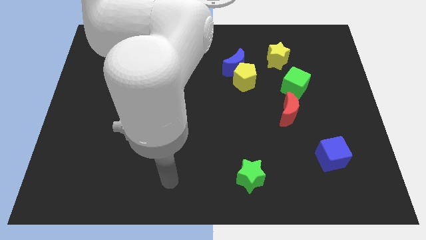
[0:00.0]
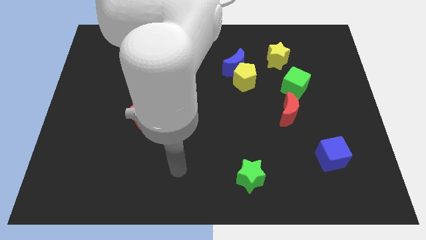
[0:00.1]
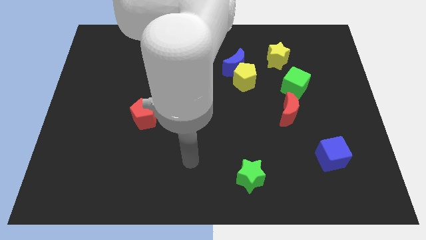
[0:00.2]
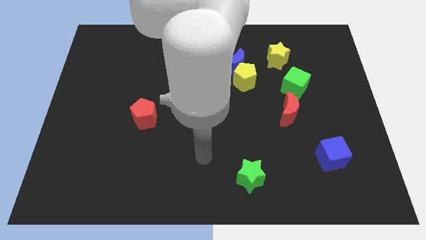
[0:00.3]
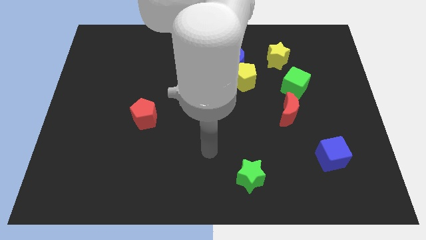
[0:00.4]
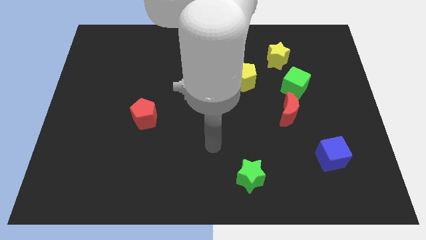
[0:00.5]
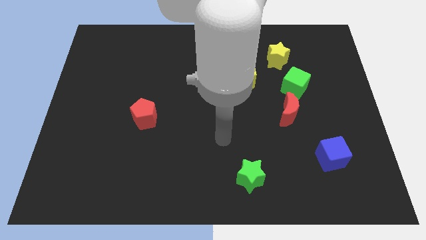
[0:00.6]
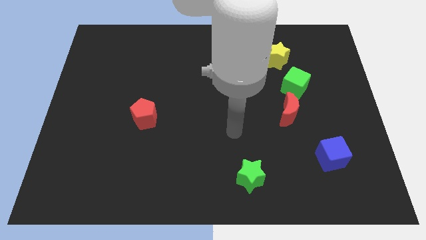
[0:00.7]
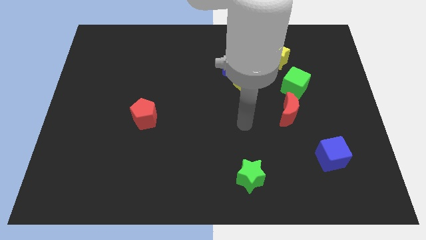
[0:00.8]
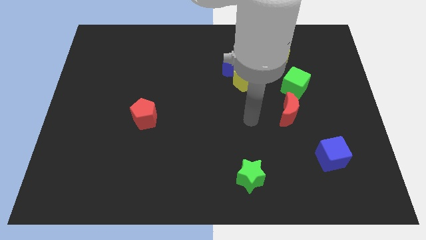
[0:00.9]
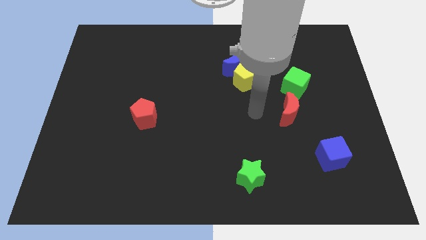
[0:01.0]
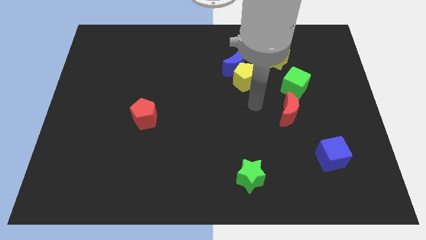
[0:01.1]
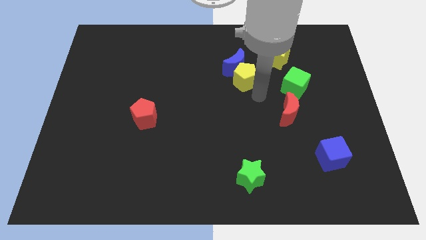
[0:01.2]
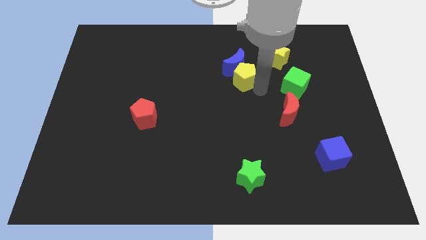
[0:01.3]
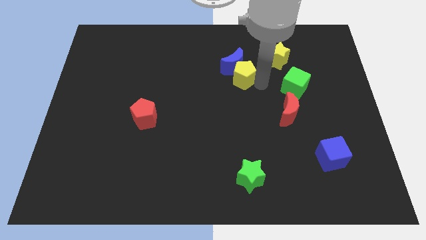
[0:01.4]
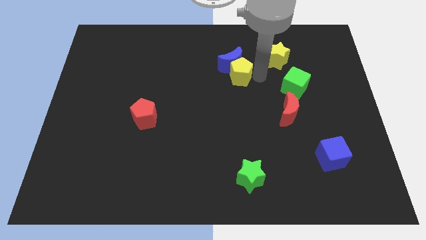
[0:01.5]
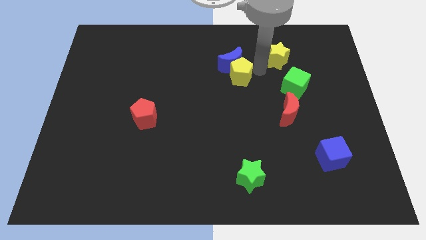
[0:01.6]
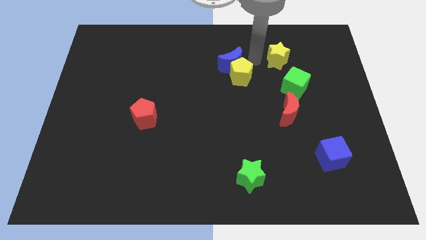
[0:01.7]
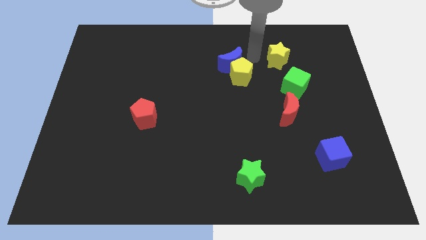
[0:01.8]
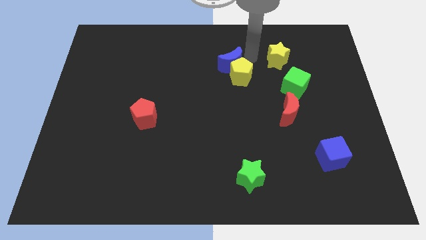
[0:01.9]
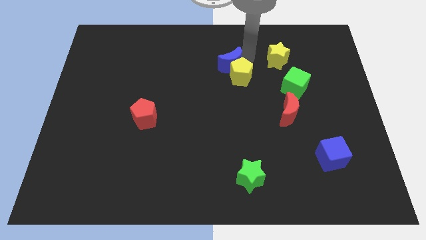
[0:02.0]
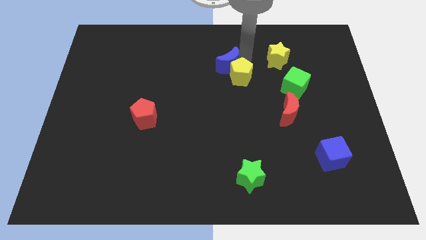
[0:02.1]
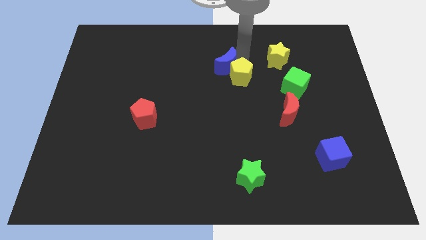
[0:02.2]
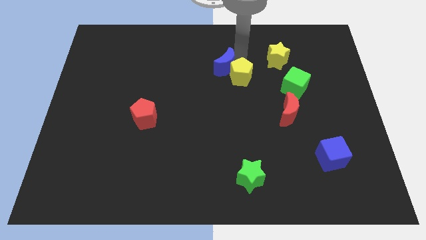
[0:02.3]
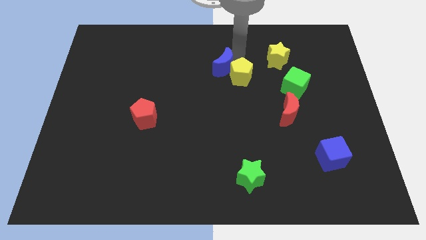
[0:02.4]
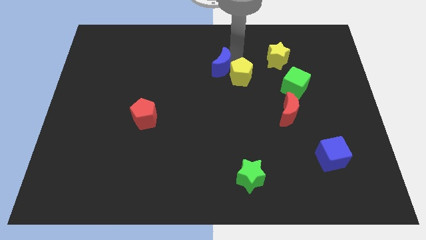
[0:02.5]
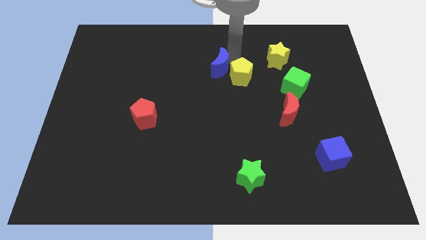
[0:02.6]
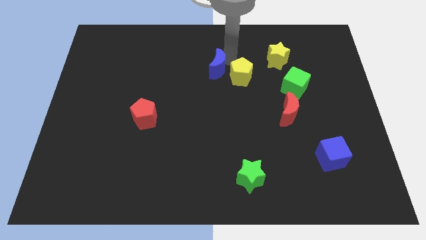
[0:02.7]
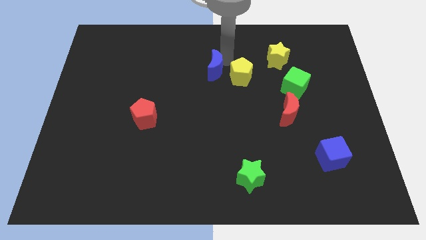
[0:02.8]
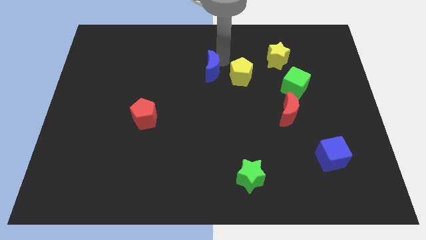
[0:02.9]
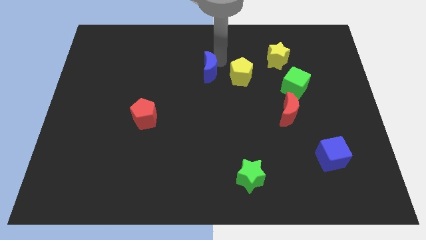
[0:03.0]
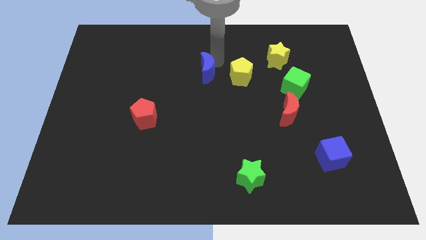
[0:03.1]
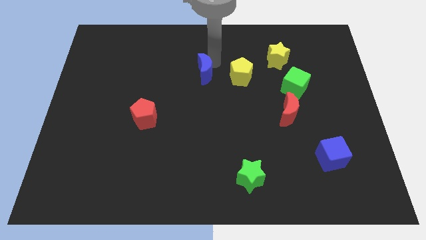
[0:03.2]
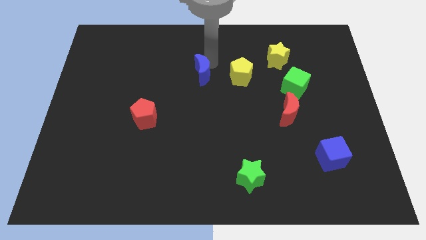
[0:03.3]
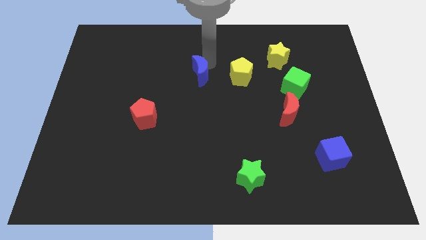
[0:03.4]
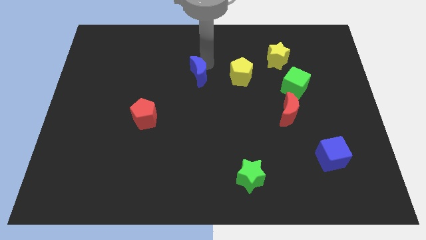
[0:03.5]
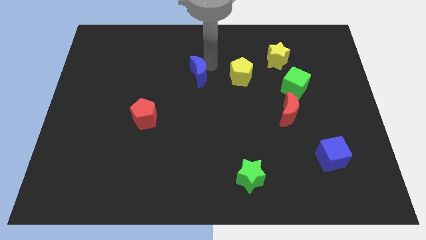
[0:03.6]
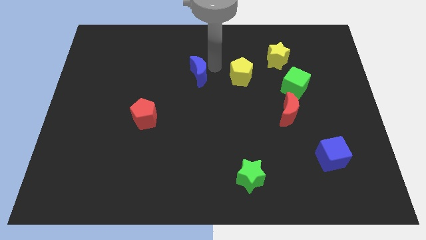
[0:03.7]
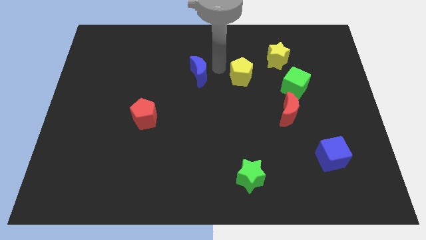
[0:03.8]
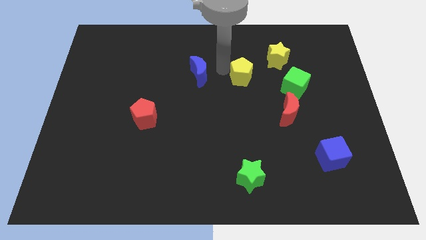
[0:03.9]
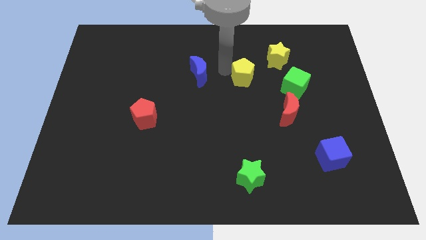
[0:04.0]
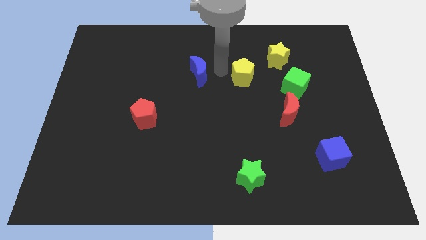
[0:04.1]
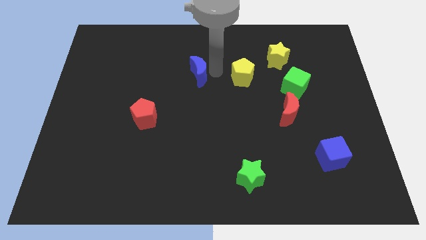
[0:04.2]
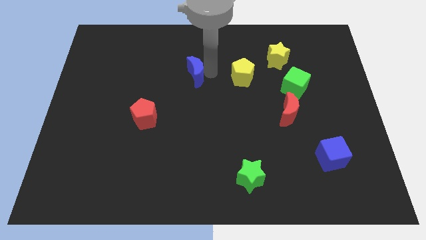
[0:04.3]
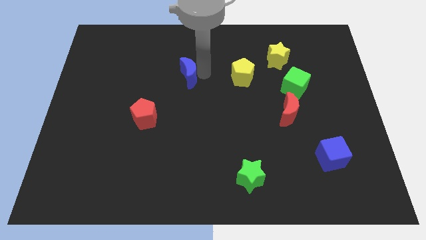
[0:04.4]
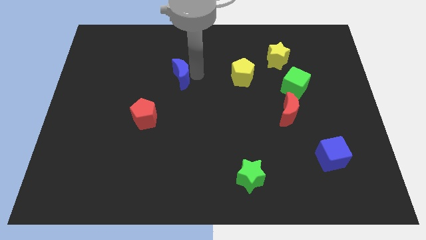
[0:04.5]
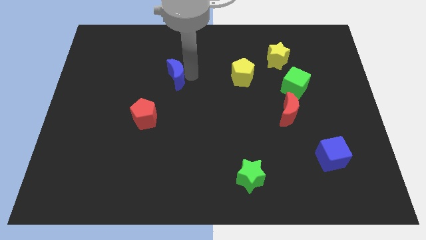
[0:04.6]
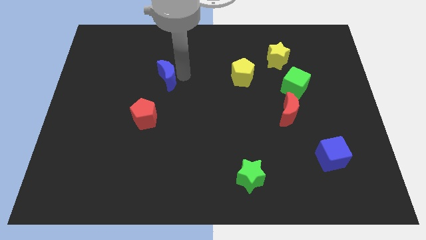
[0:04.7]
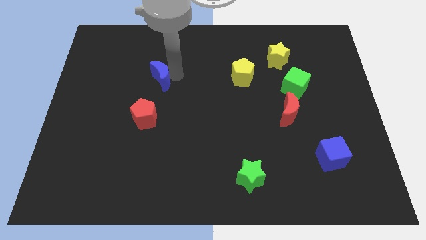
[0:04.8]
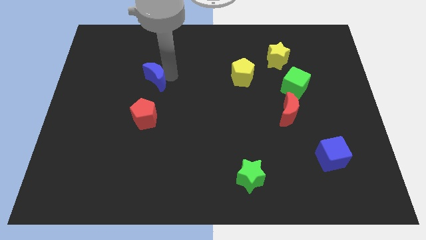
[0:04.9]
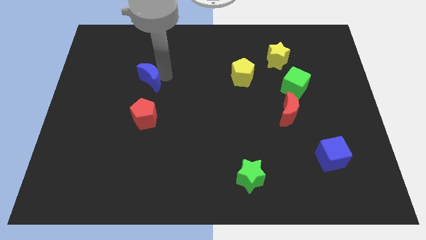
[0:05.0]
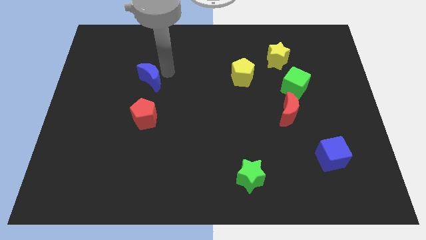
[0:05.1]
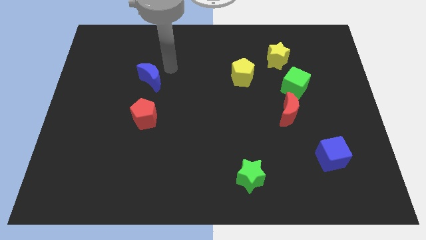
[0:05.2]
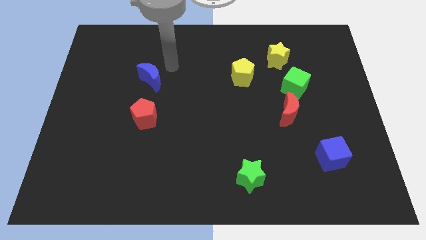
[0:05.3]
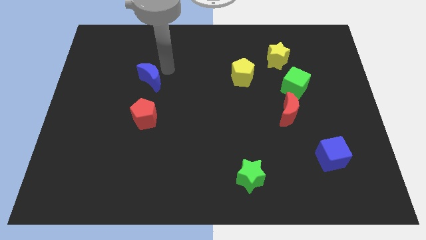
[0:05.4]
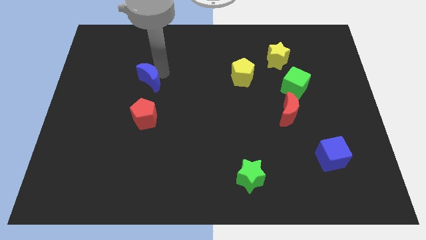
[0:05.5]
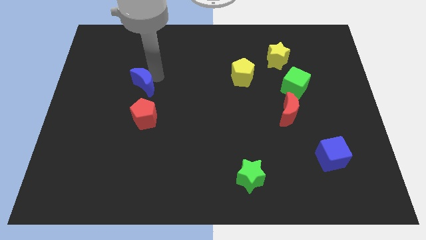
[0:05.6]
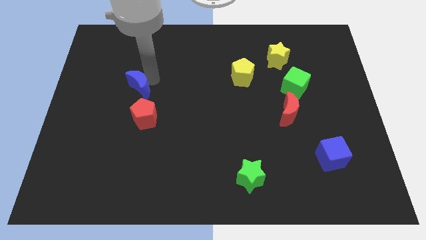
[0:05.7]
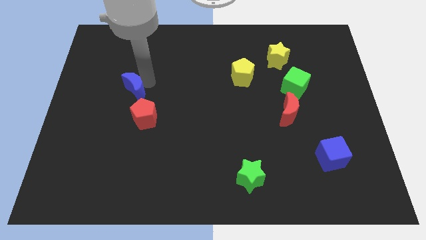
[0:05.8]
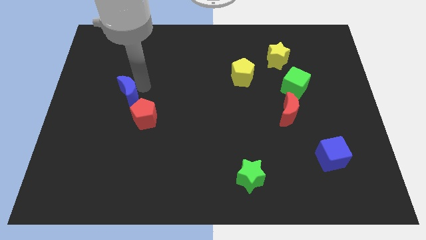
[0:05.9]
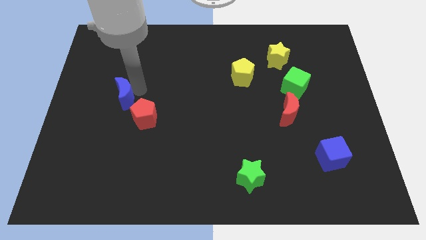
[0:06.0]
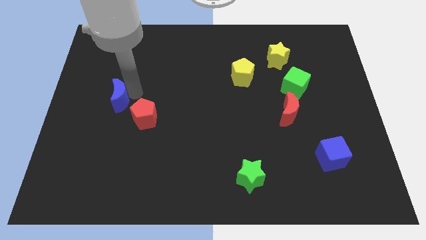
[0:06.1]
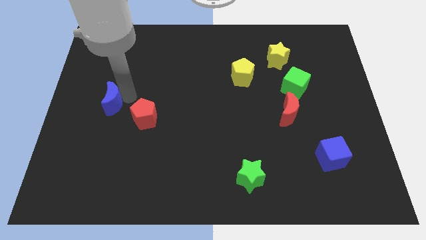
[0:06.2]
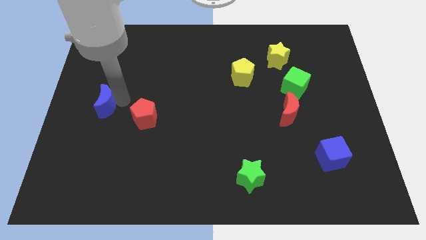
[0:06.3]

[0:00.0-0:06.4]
slide the blue moon to the left side
